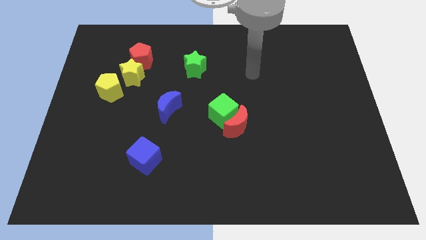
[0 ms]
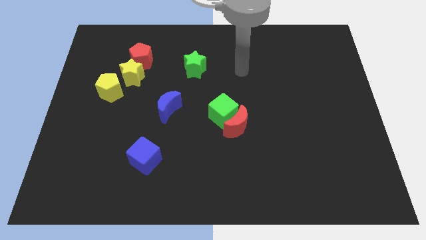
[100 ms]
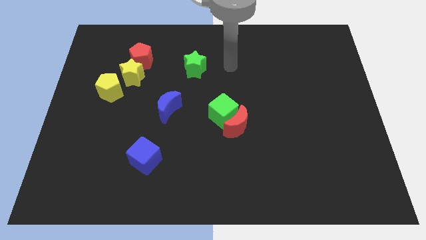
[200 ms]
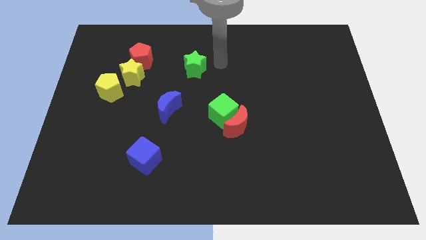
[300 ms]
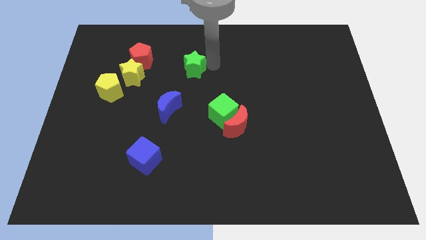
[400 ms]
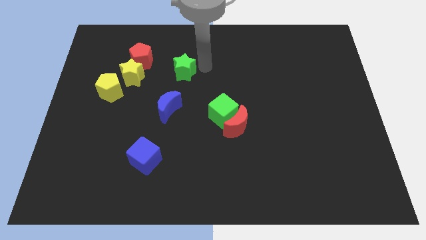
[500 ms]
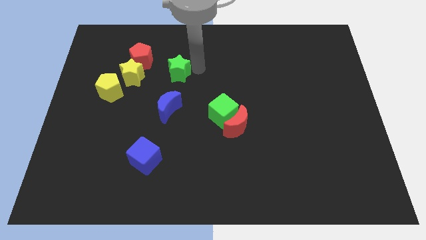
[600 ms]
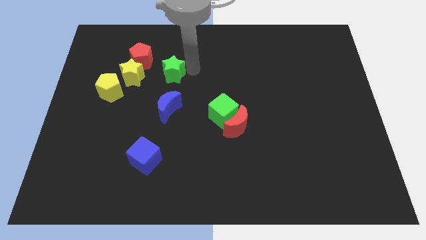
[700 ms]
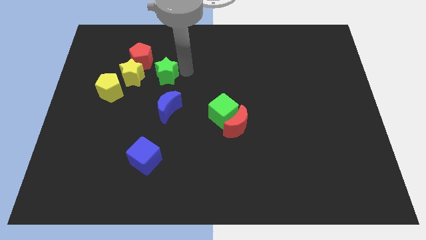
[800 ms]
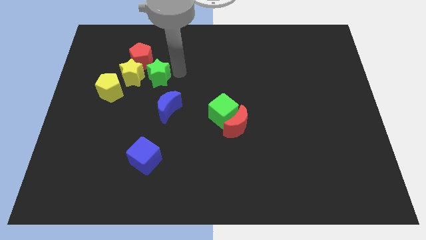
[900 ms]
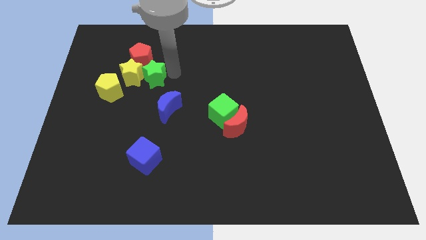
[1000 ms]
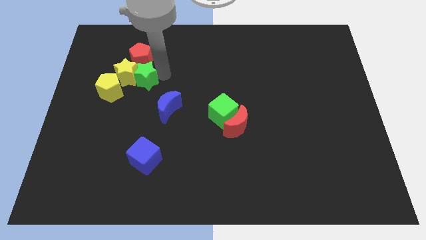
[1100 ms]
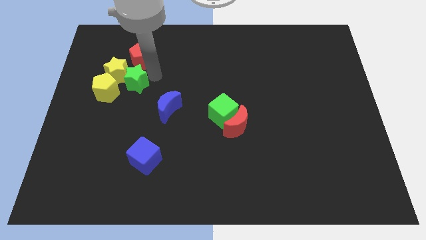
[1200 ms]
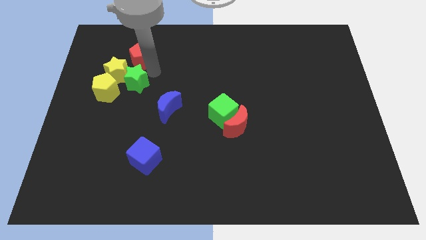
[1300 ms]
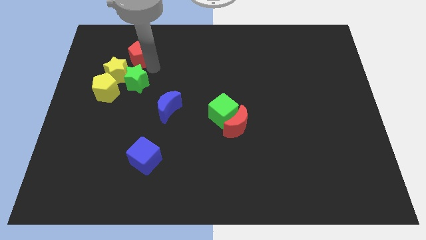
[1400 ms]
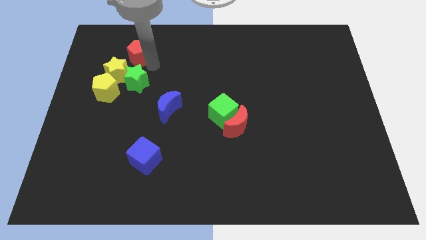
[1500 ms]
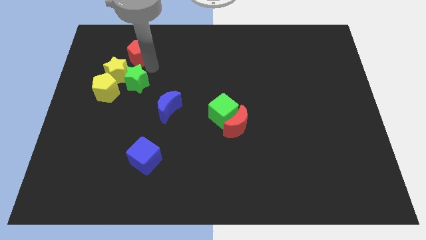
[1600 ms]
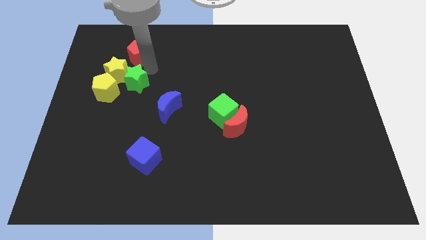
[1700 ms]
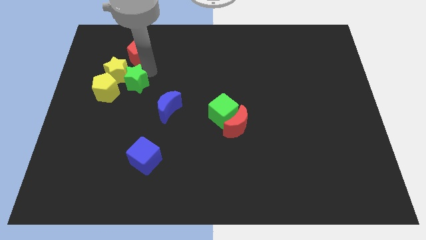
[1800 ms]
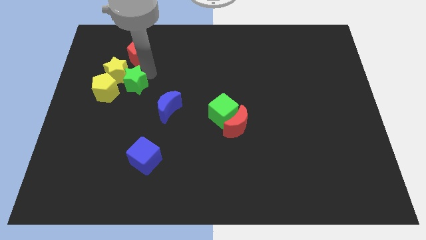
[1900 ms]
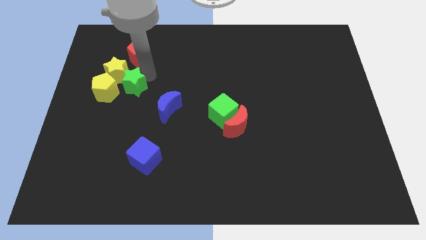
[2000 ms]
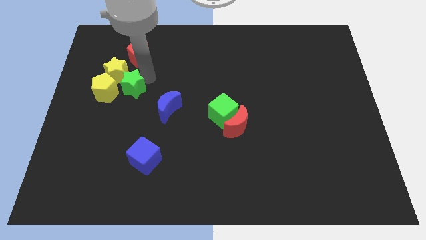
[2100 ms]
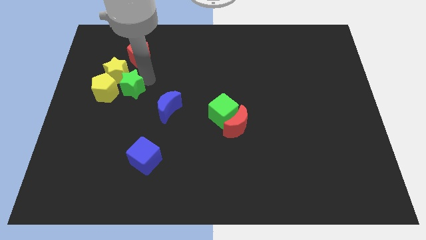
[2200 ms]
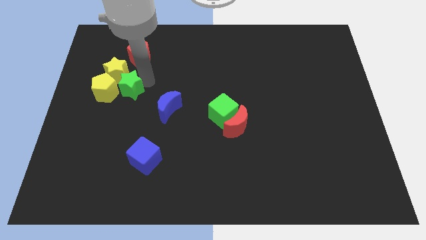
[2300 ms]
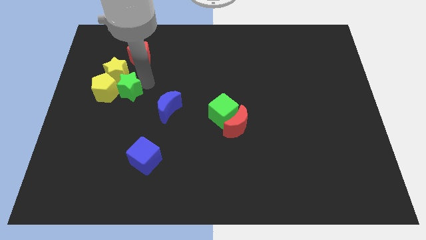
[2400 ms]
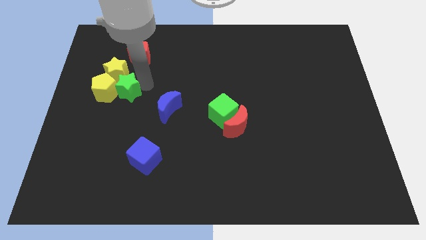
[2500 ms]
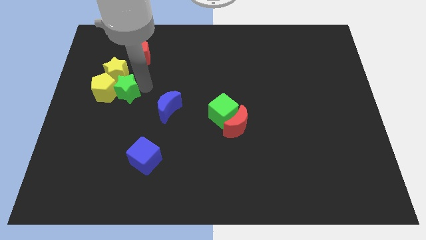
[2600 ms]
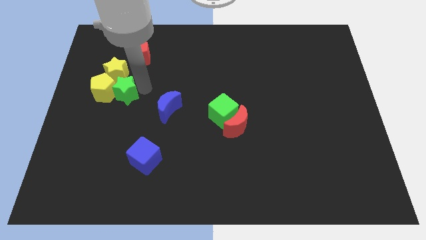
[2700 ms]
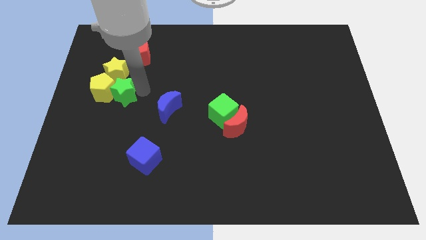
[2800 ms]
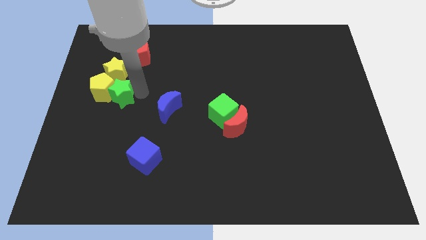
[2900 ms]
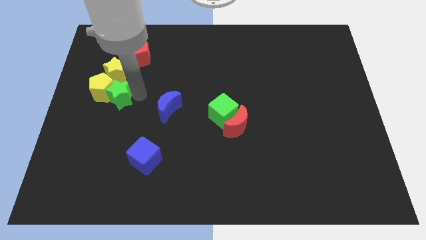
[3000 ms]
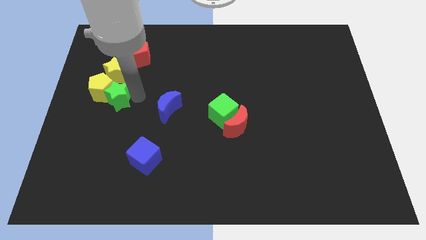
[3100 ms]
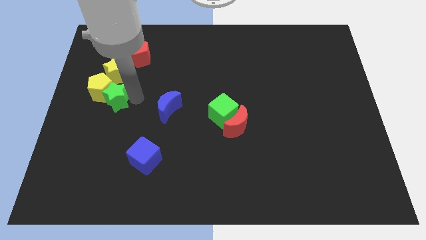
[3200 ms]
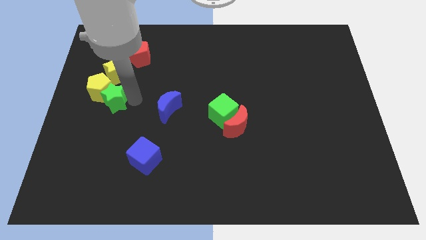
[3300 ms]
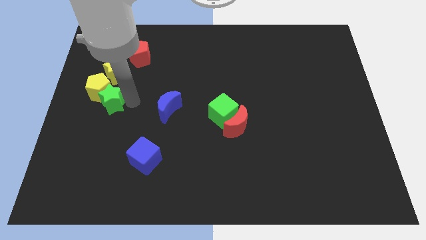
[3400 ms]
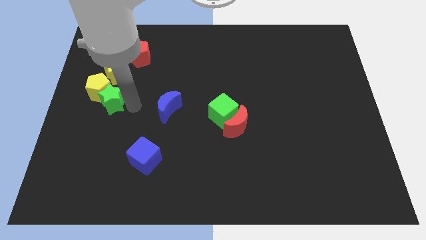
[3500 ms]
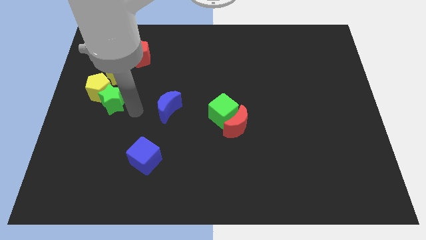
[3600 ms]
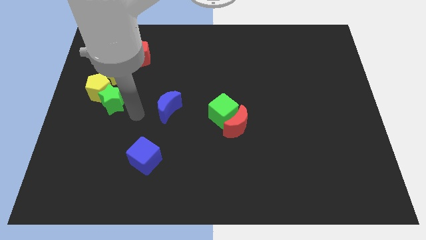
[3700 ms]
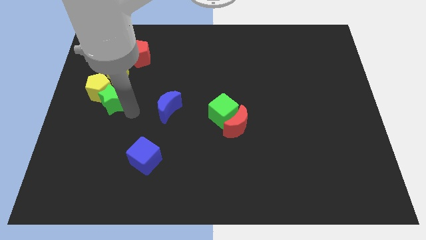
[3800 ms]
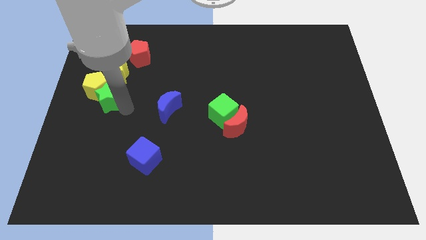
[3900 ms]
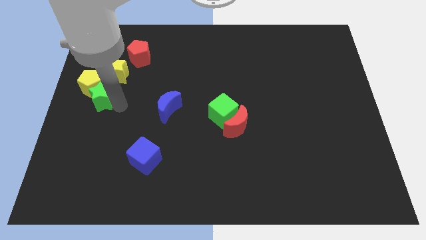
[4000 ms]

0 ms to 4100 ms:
slide the green star diagonally down and to the left of the yellow star

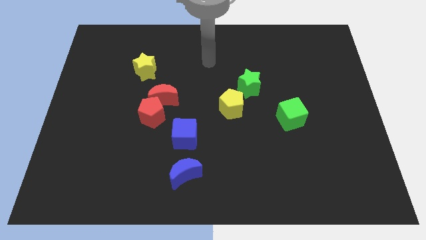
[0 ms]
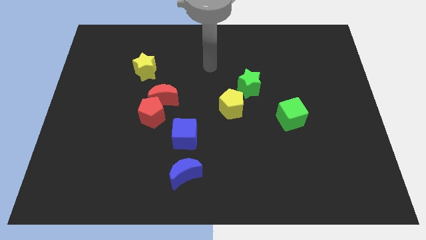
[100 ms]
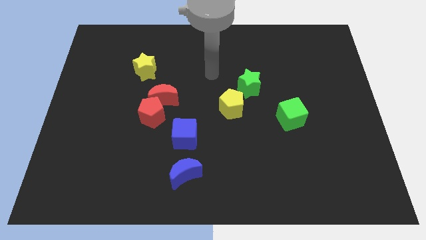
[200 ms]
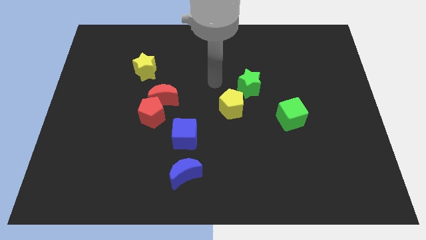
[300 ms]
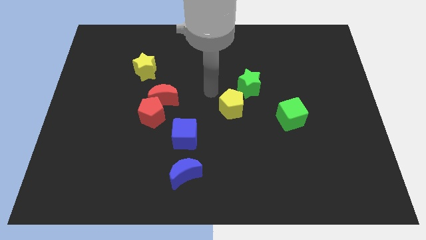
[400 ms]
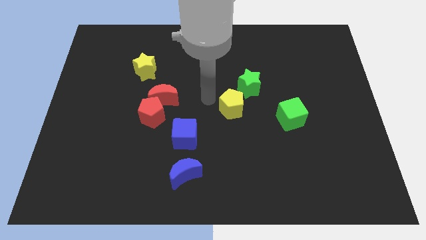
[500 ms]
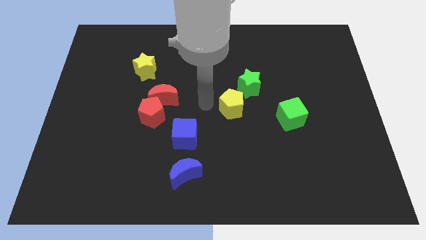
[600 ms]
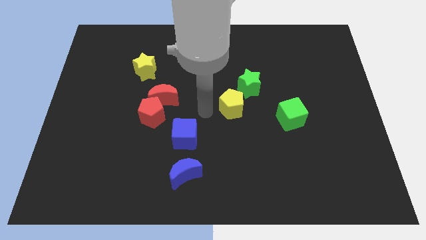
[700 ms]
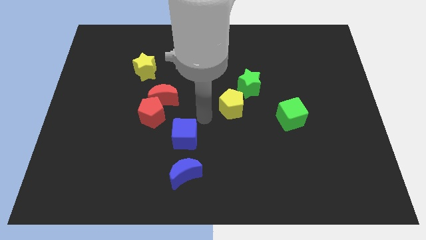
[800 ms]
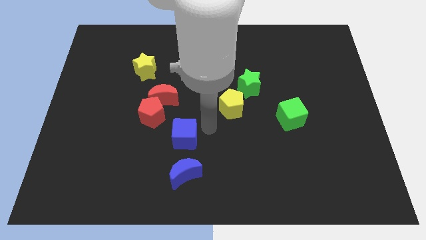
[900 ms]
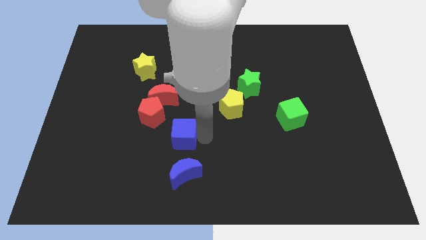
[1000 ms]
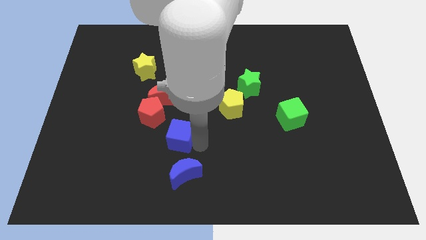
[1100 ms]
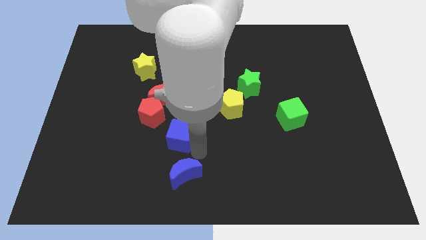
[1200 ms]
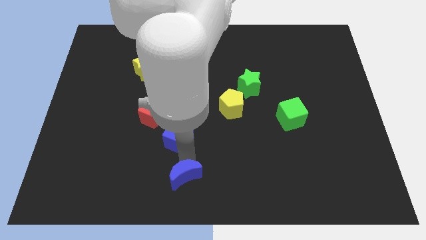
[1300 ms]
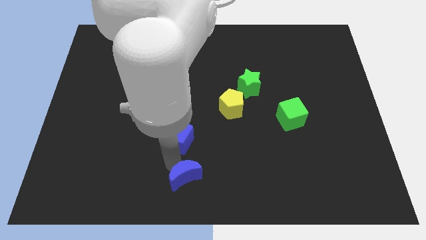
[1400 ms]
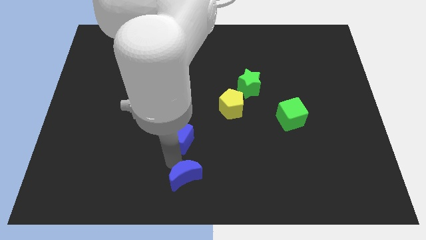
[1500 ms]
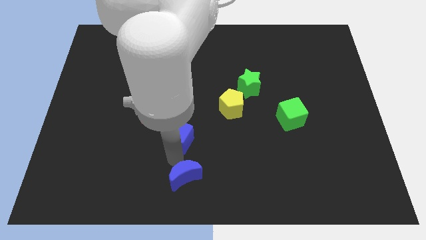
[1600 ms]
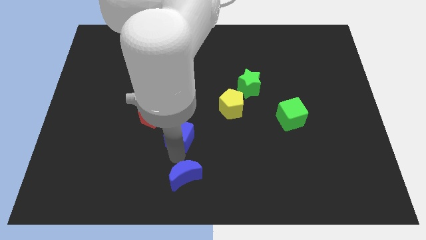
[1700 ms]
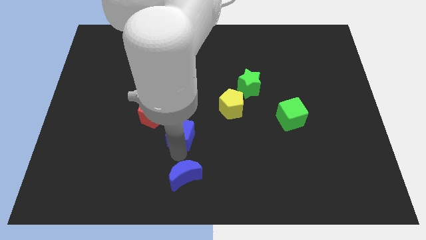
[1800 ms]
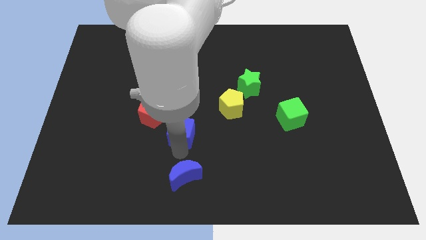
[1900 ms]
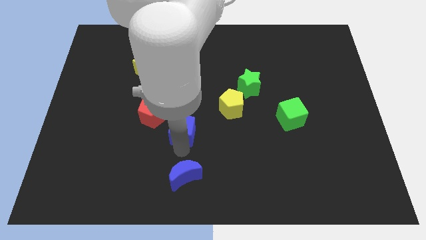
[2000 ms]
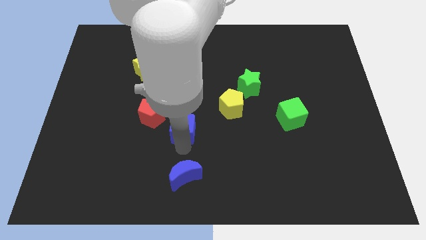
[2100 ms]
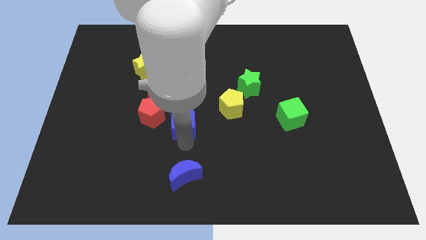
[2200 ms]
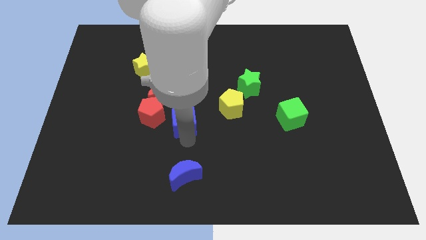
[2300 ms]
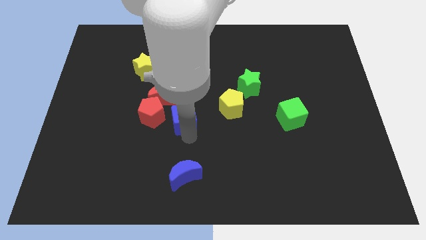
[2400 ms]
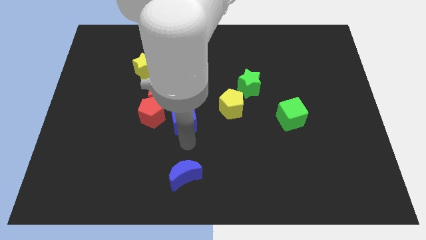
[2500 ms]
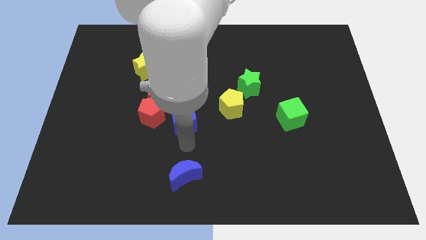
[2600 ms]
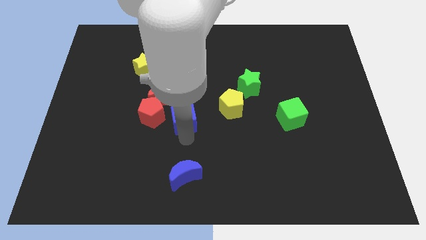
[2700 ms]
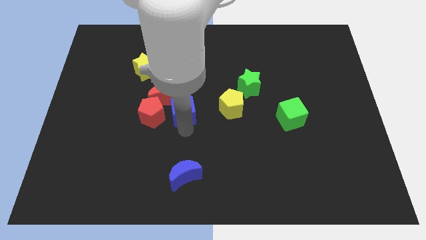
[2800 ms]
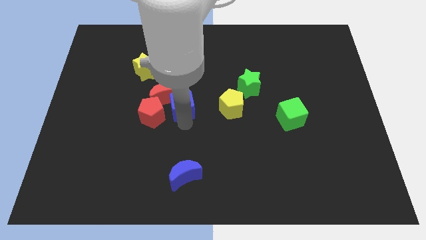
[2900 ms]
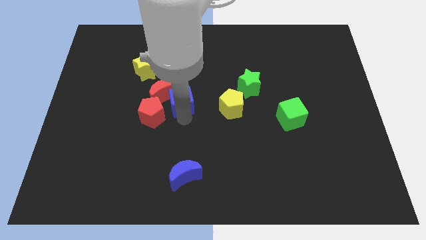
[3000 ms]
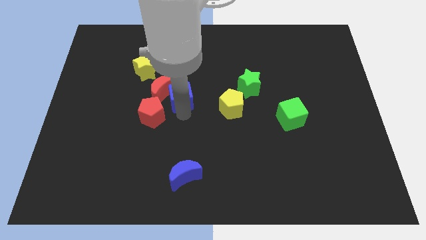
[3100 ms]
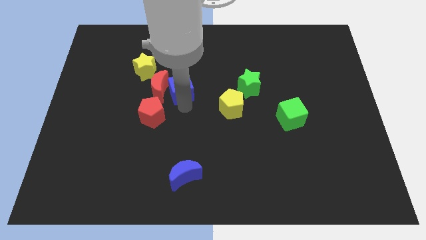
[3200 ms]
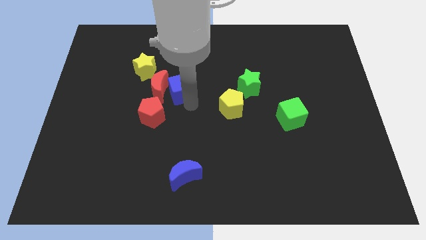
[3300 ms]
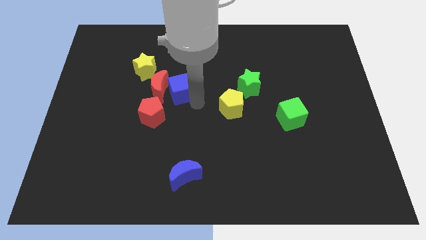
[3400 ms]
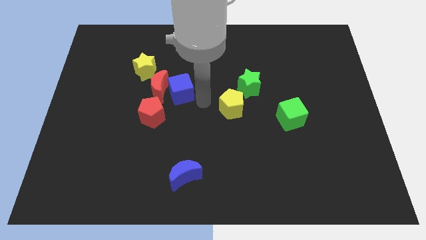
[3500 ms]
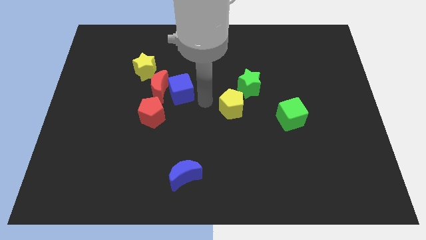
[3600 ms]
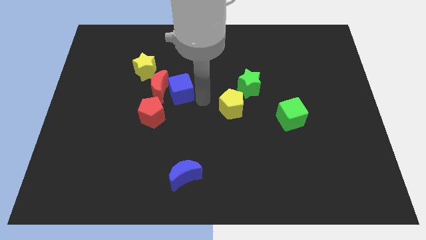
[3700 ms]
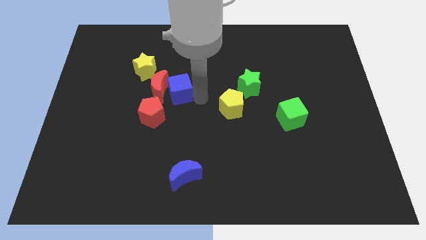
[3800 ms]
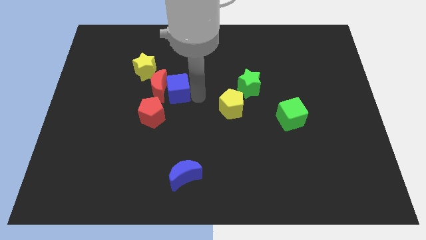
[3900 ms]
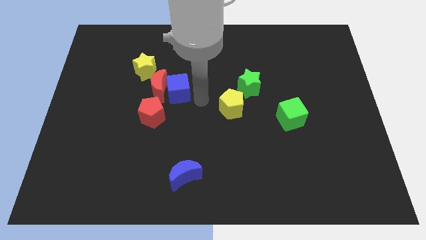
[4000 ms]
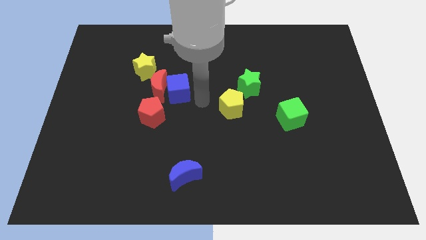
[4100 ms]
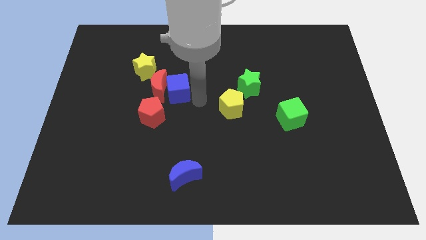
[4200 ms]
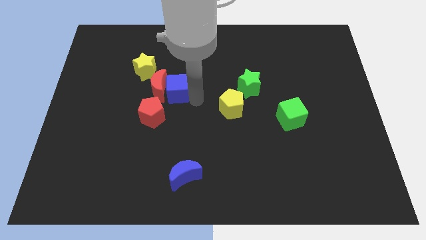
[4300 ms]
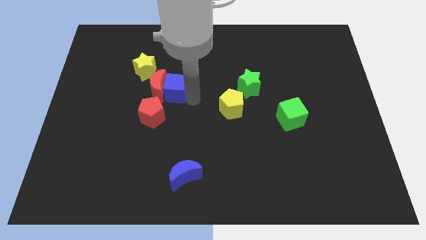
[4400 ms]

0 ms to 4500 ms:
push the blue cube to the top of the red pentagon
